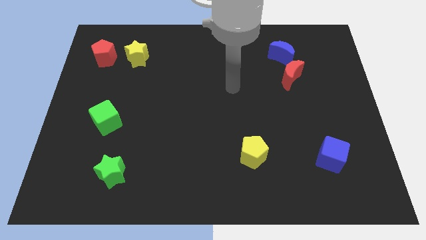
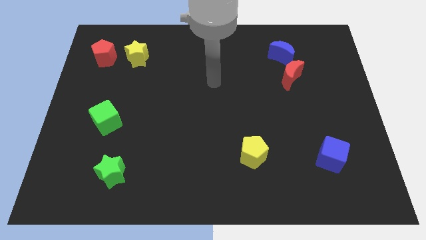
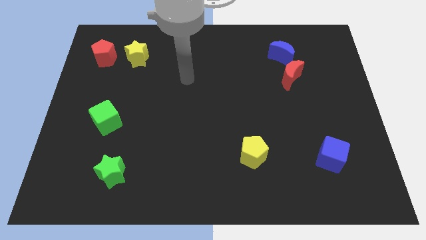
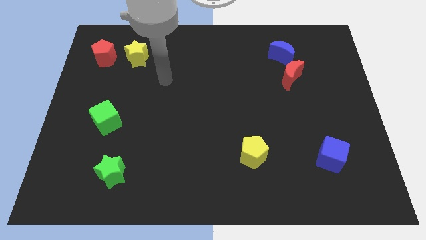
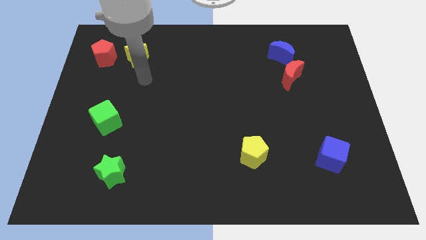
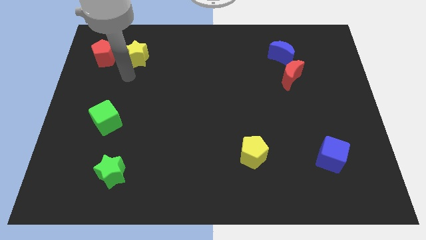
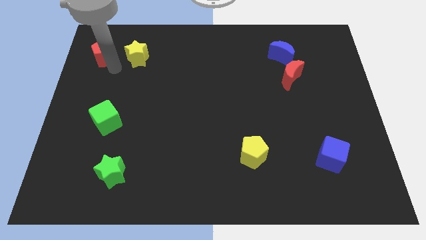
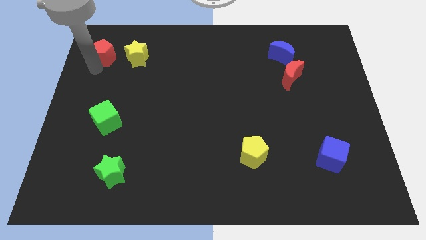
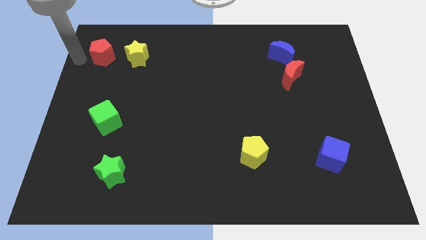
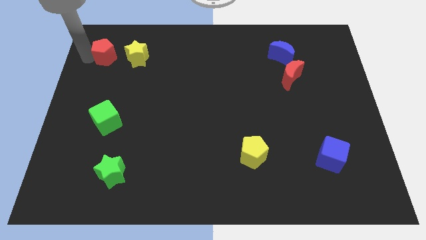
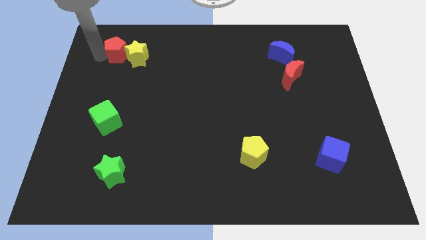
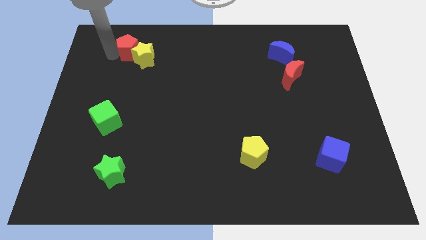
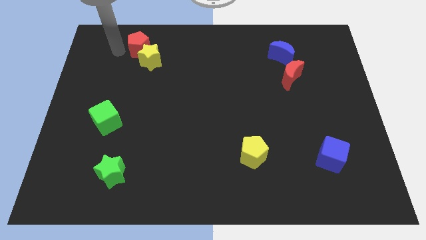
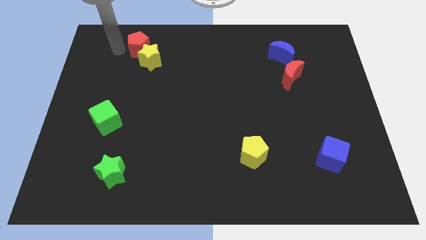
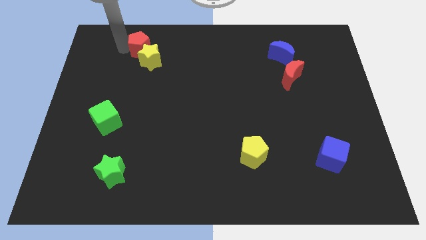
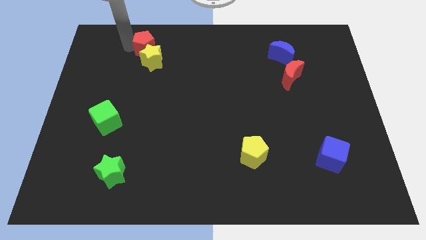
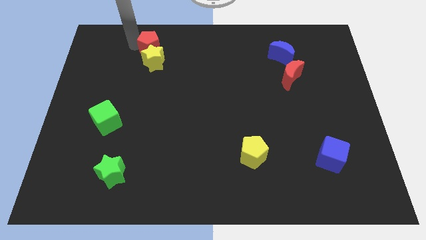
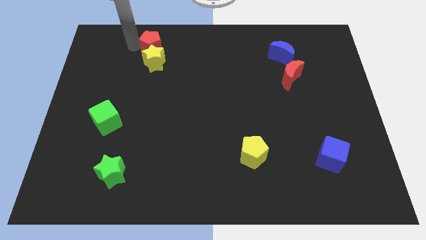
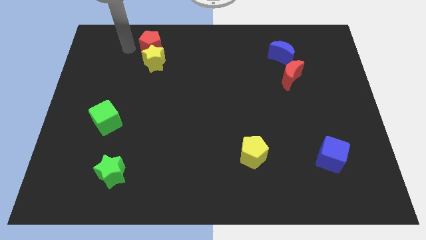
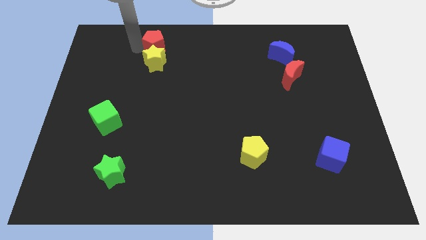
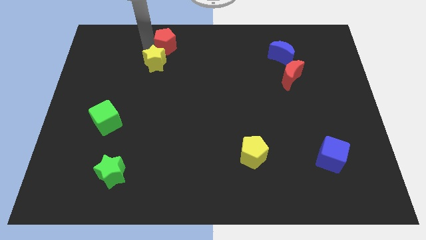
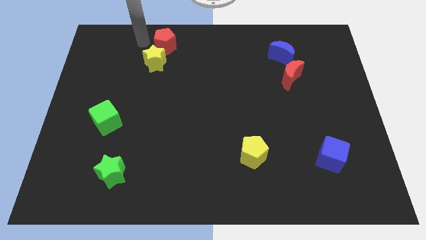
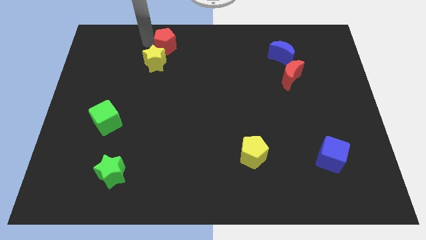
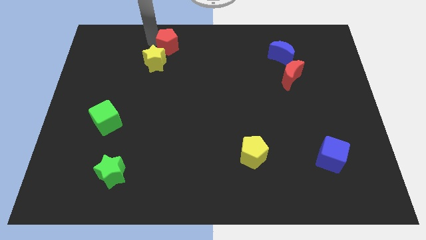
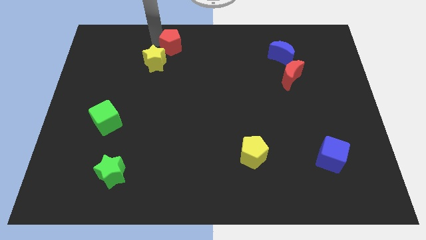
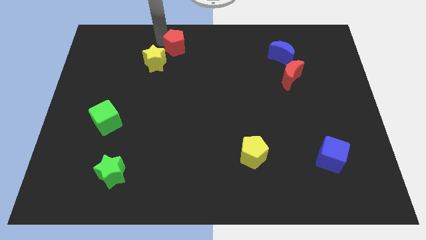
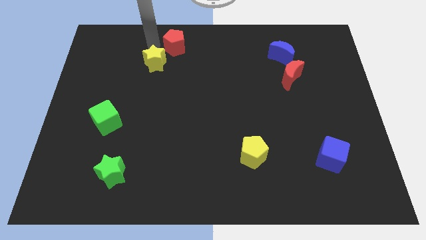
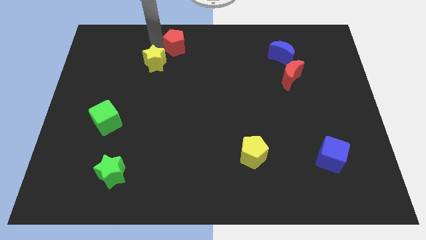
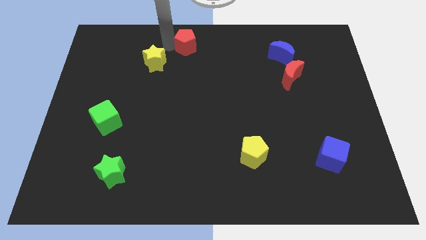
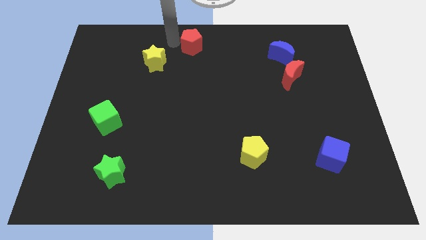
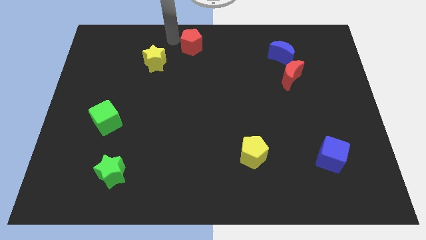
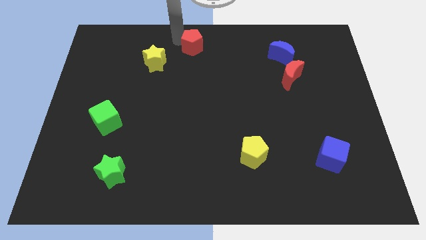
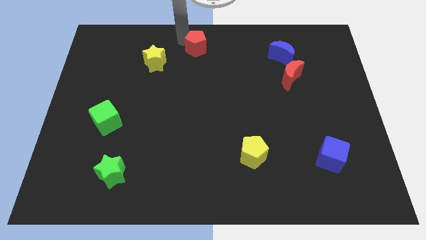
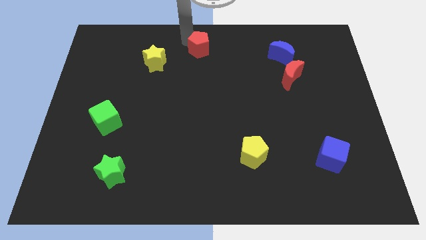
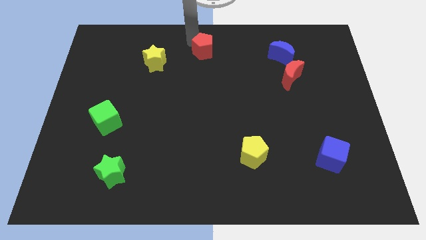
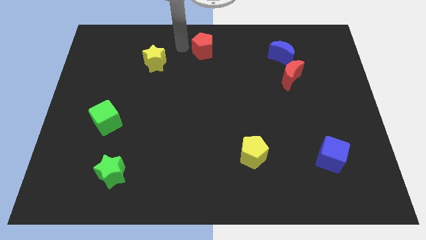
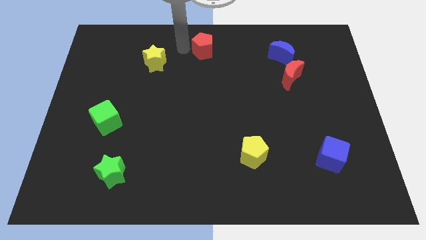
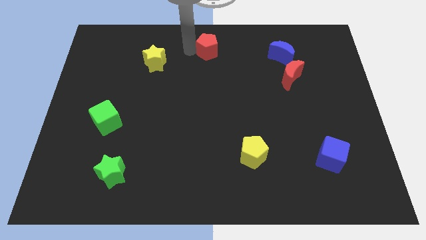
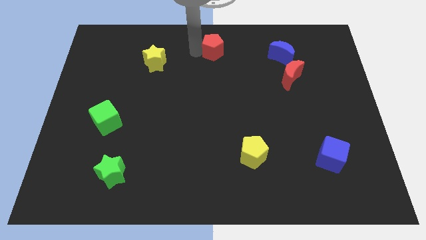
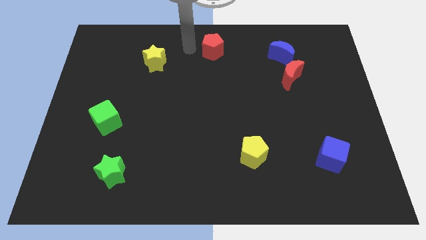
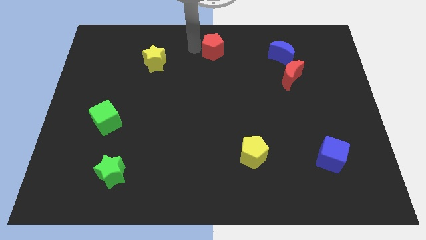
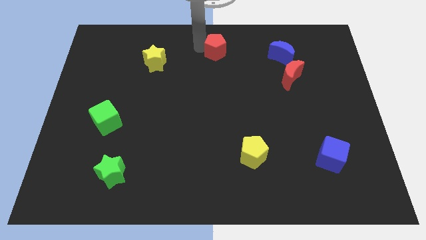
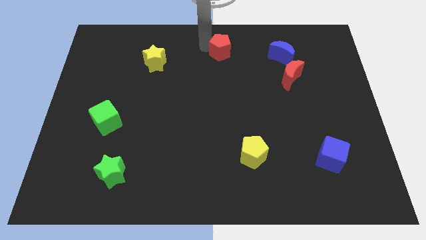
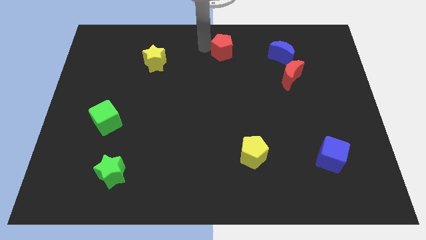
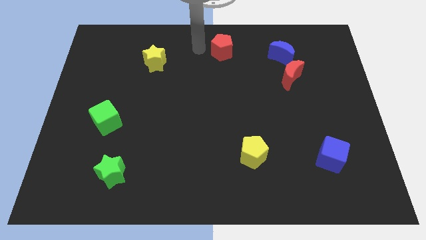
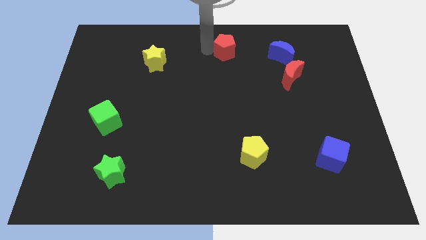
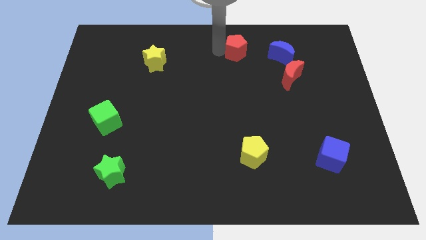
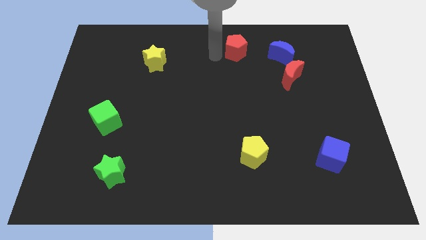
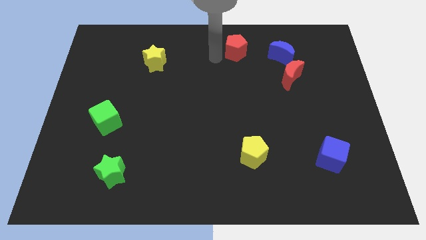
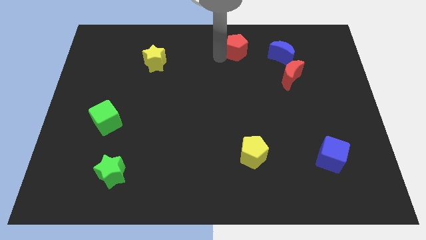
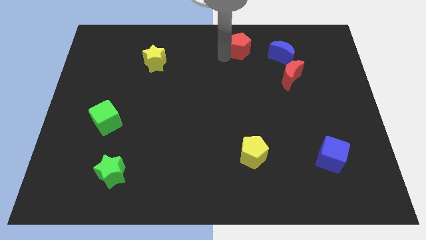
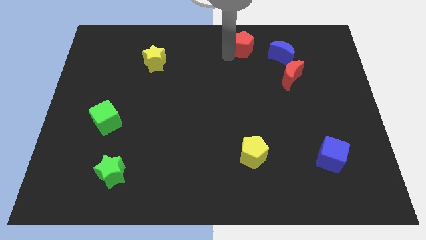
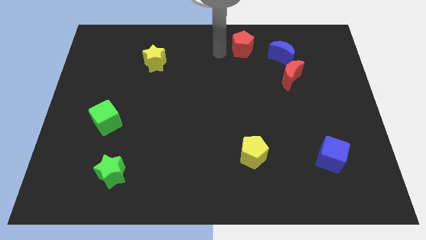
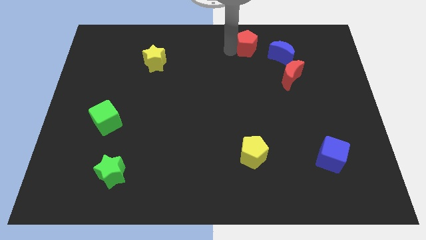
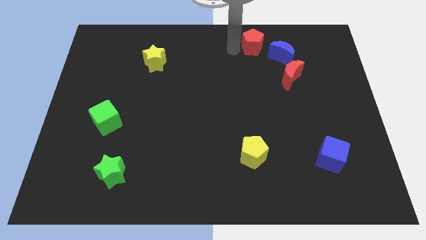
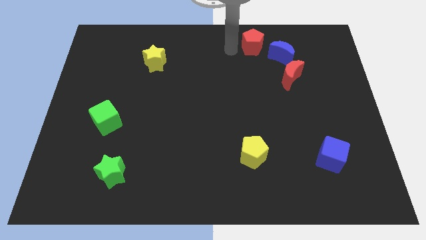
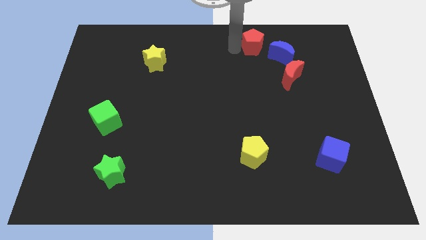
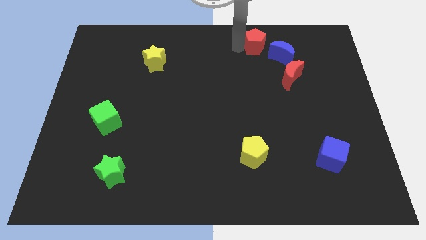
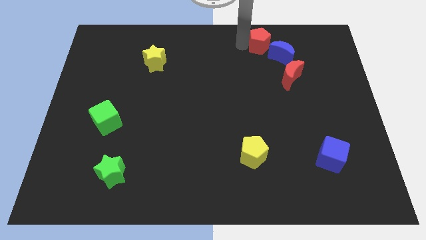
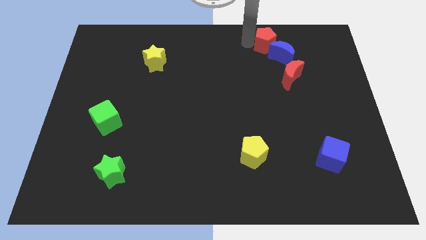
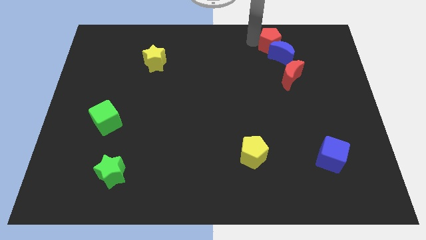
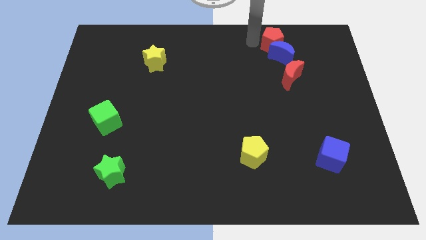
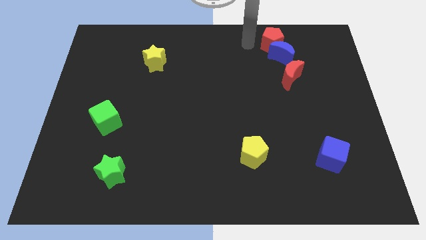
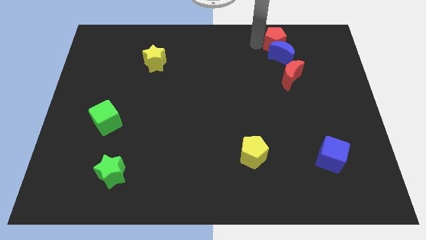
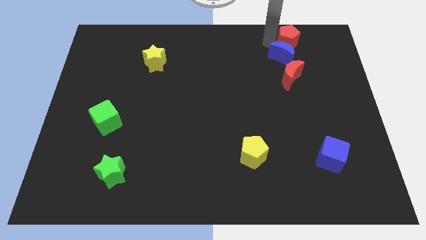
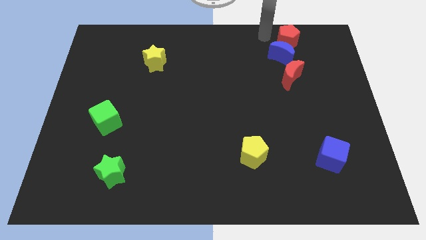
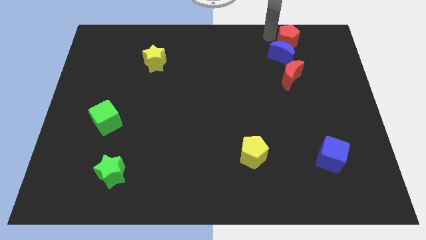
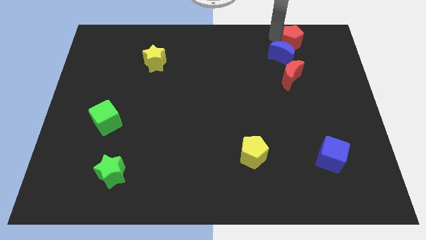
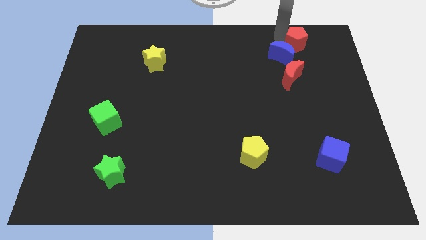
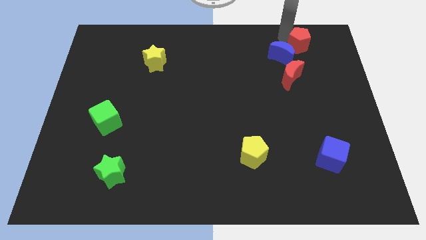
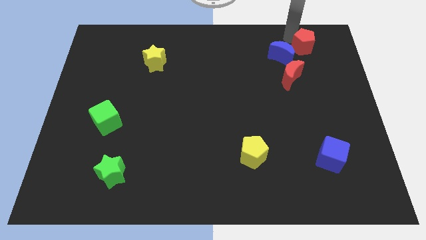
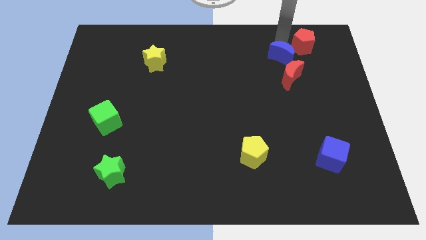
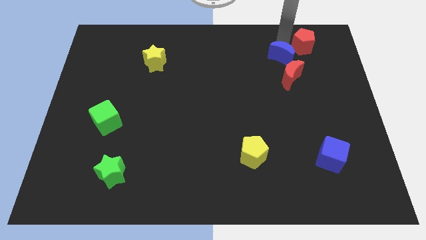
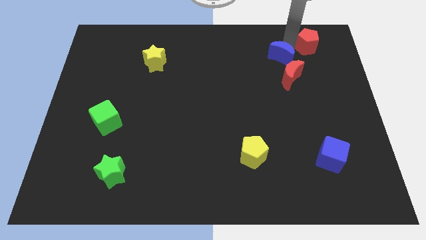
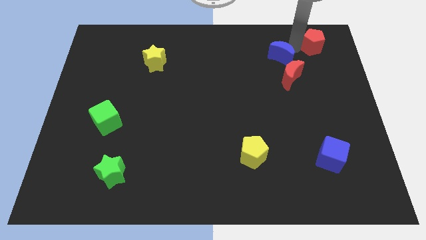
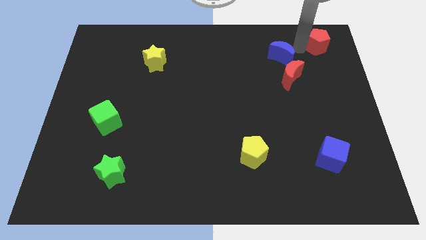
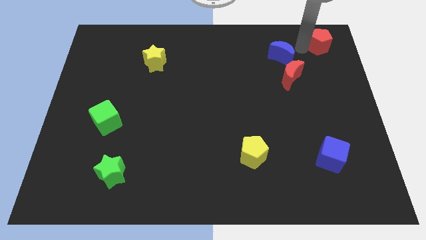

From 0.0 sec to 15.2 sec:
slide the red pentagon to the top right corner
